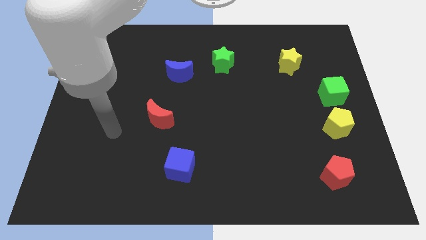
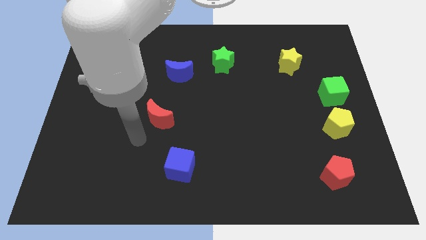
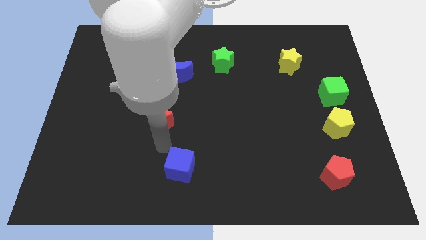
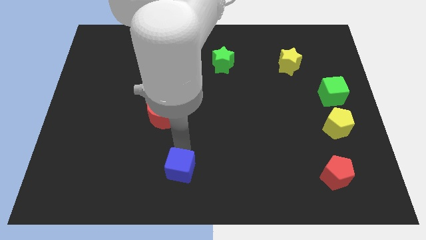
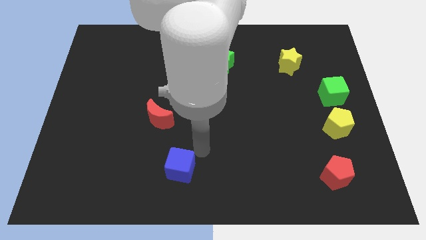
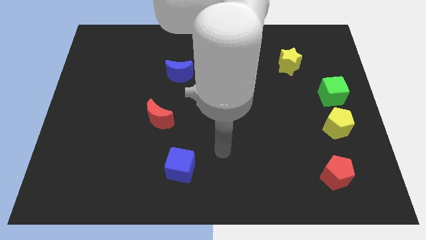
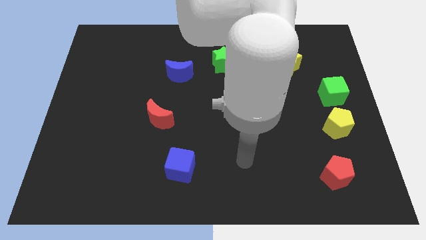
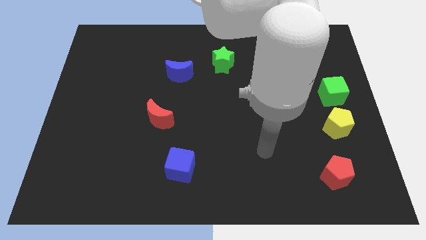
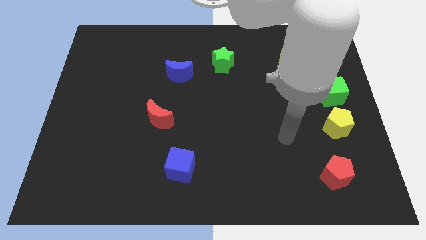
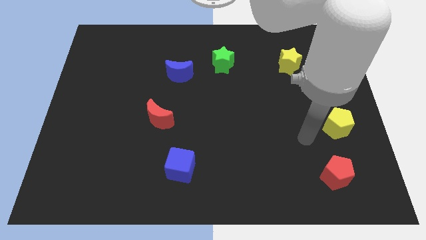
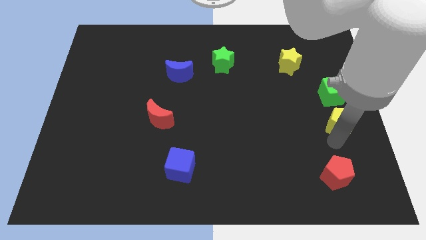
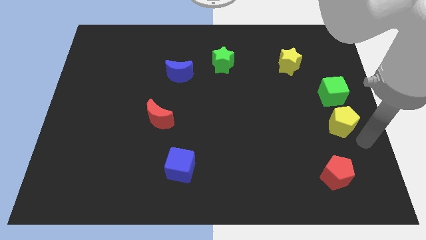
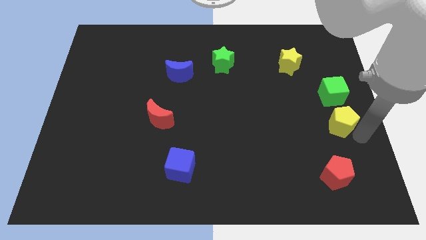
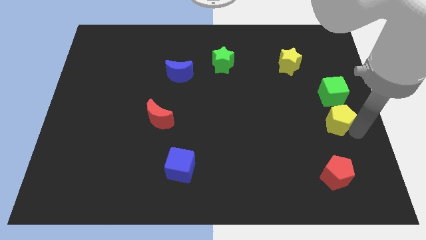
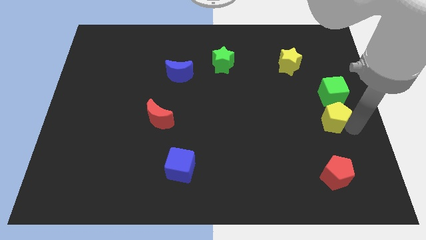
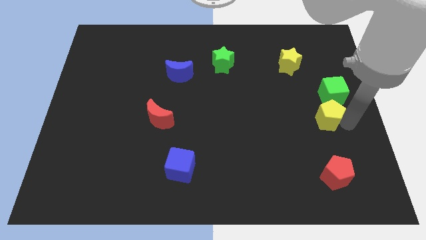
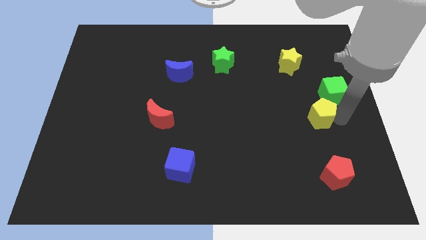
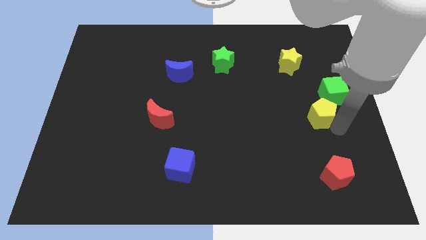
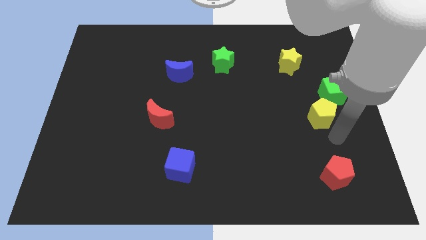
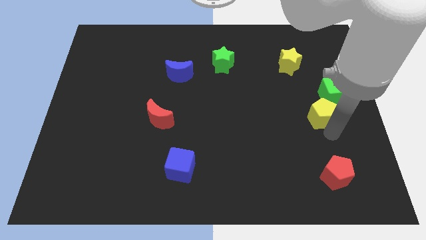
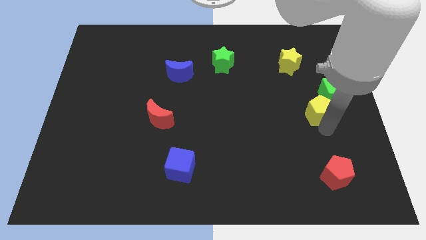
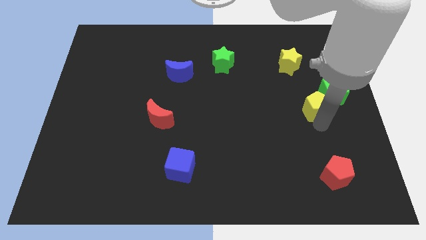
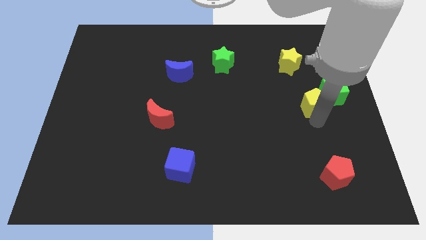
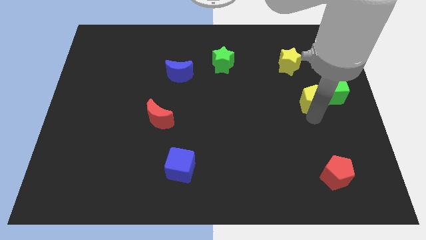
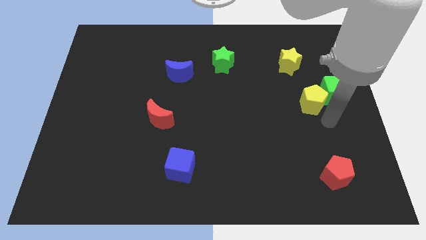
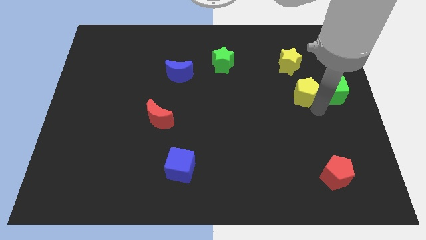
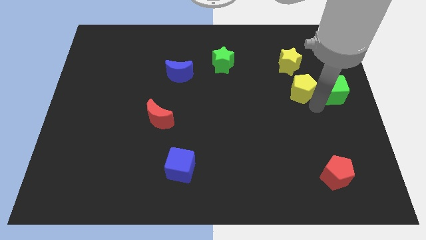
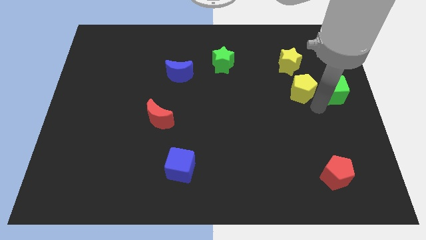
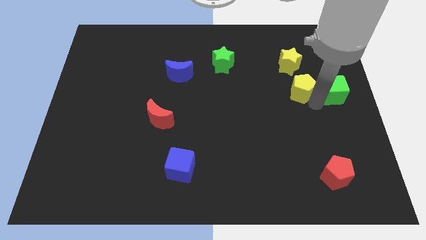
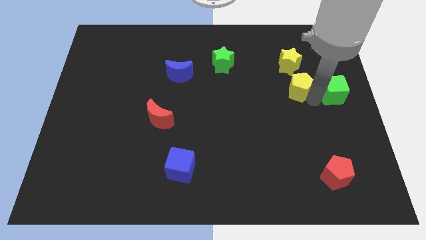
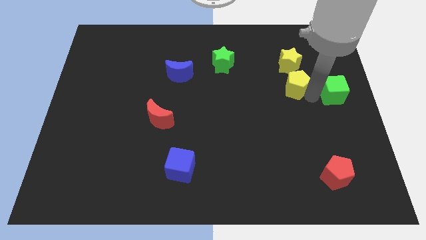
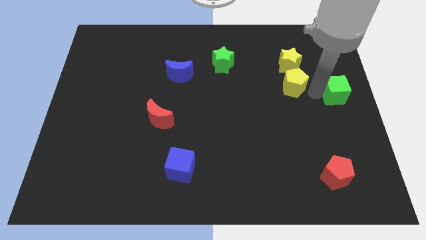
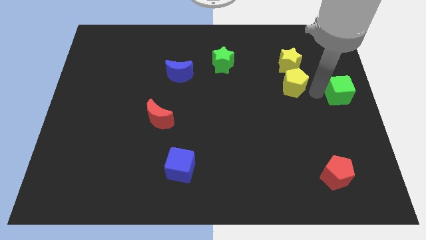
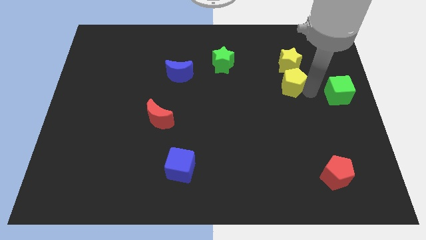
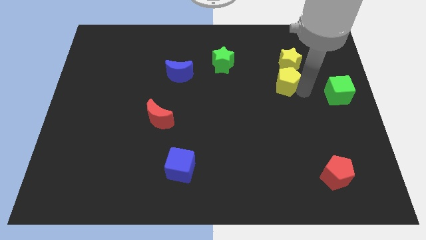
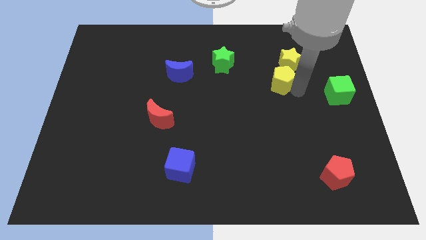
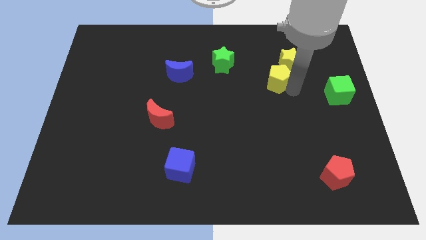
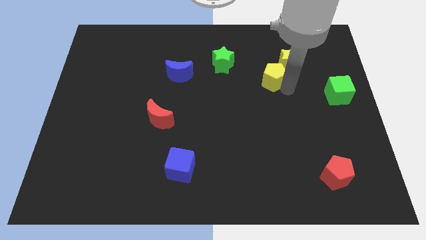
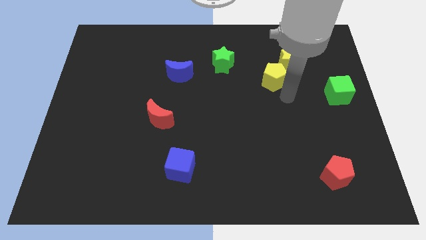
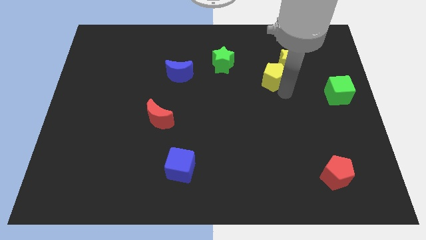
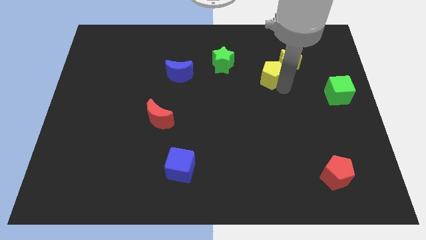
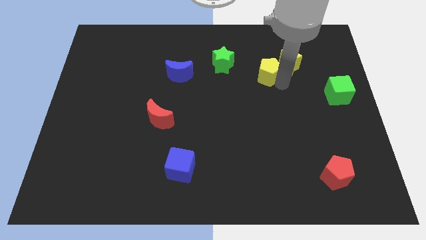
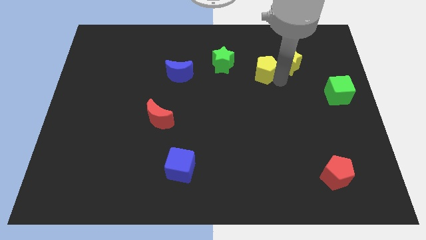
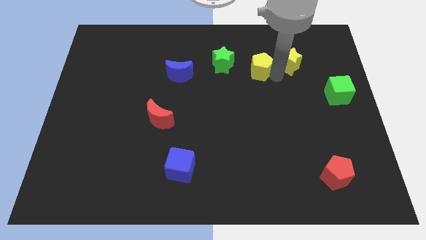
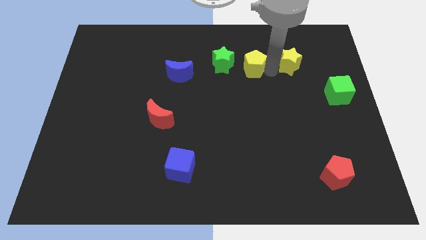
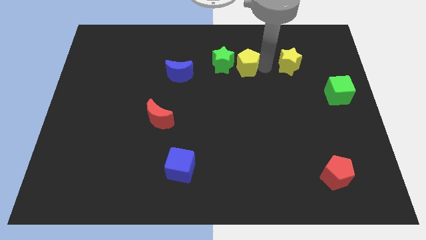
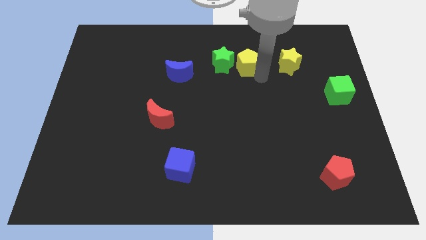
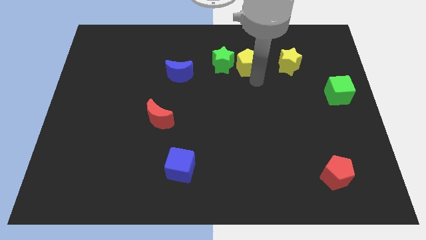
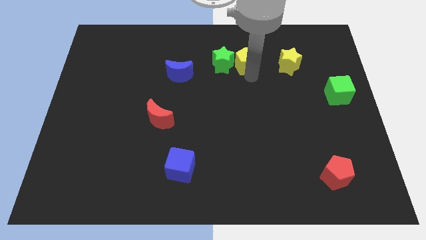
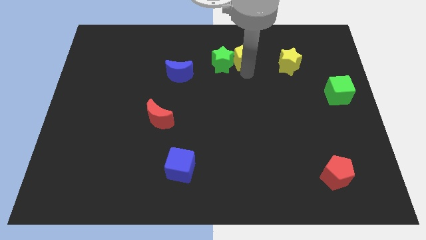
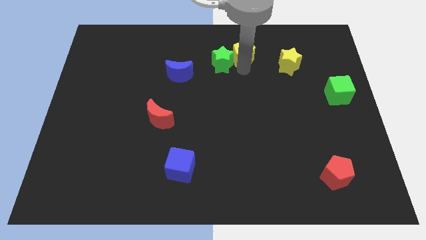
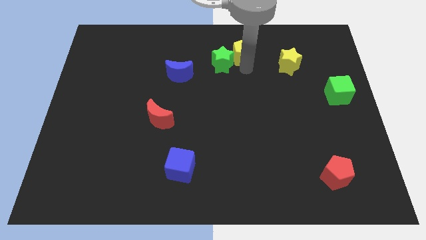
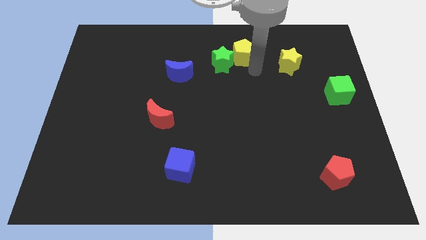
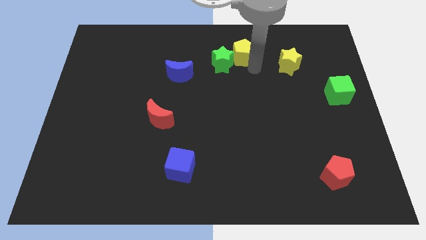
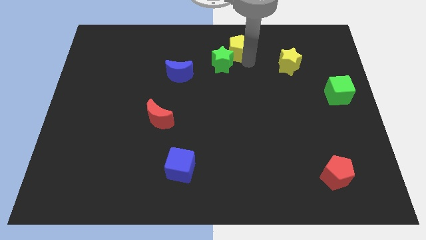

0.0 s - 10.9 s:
slide the yellow pentagon to the towards your base
